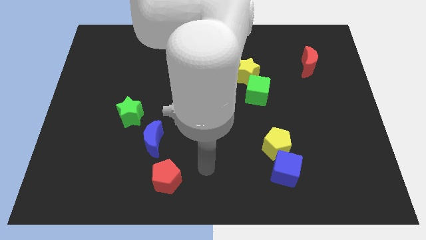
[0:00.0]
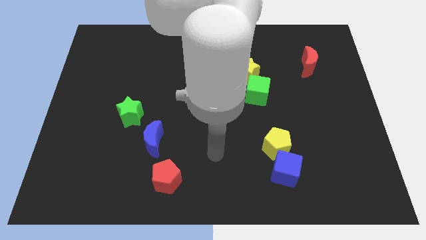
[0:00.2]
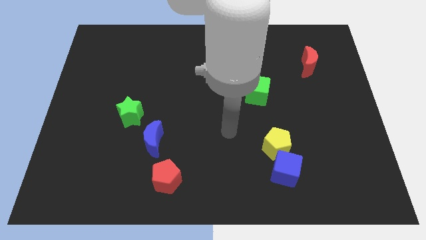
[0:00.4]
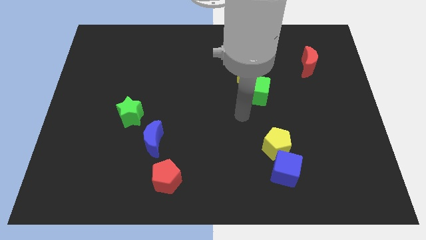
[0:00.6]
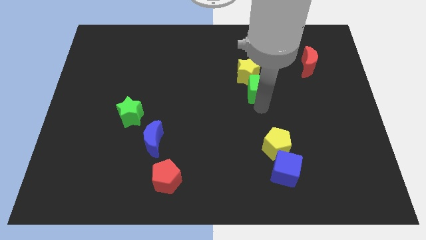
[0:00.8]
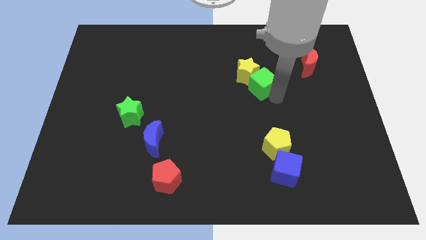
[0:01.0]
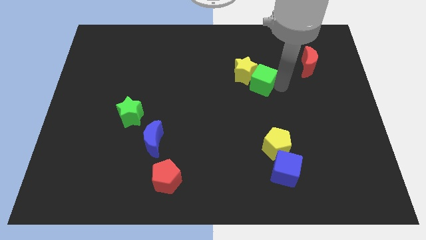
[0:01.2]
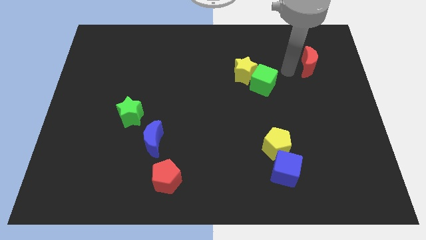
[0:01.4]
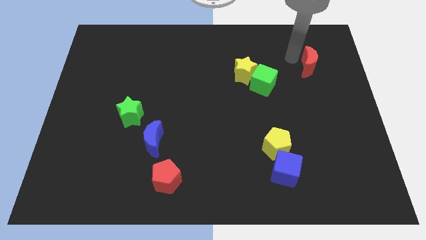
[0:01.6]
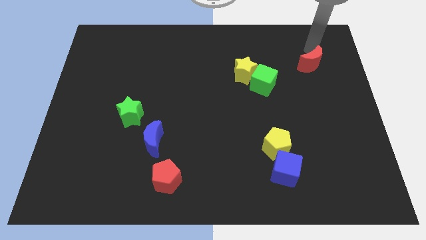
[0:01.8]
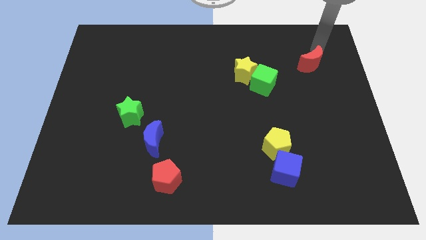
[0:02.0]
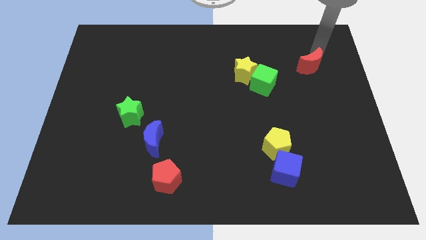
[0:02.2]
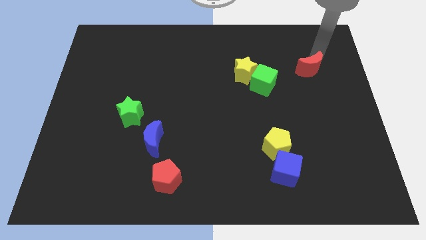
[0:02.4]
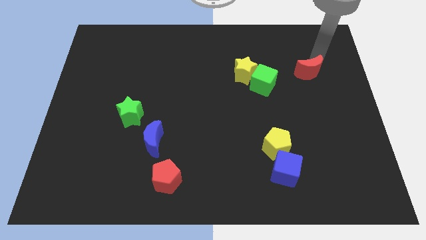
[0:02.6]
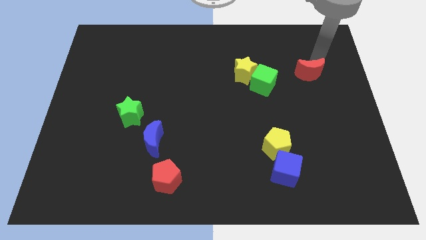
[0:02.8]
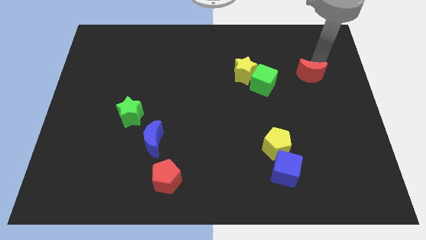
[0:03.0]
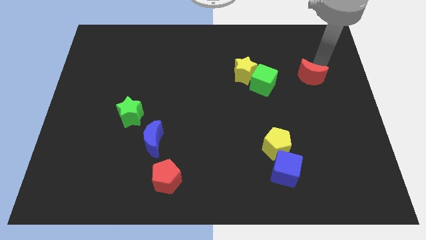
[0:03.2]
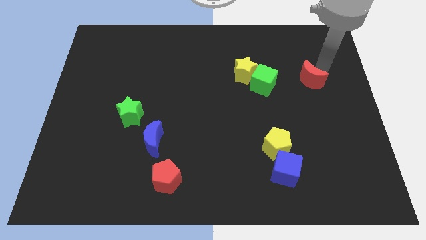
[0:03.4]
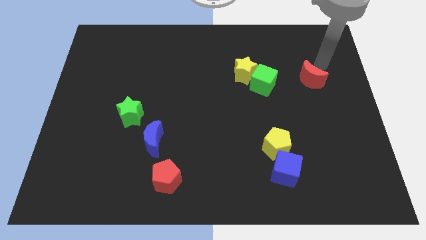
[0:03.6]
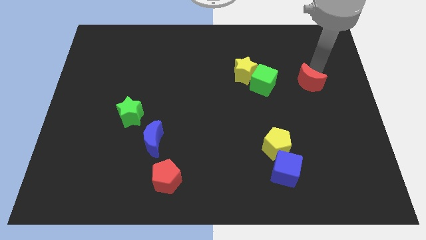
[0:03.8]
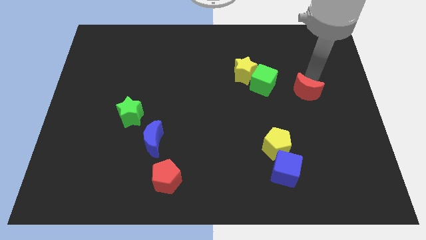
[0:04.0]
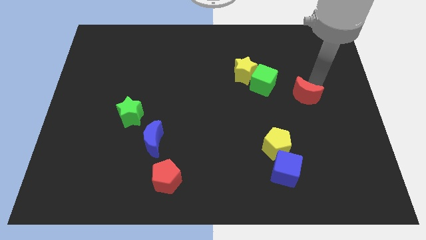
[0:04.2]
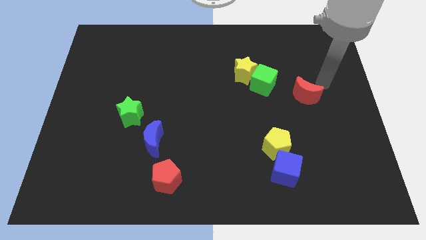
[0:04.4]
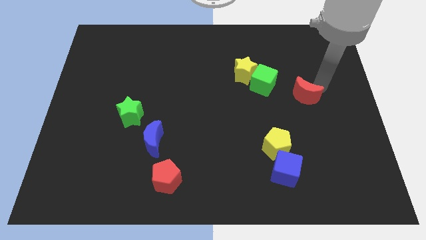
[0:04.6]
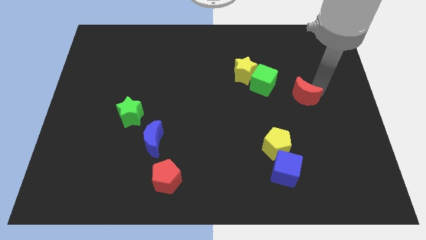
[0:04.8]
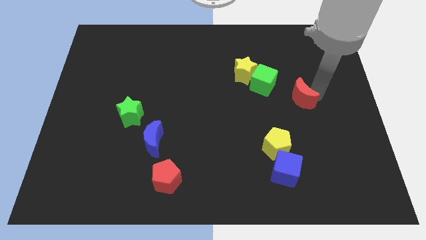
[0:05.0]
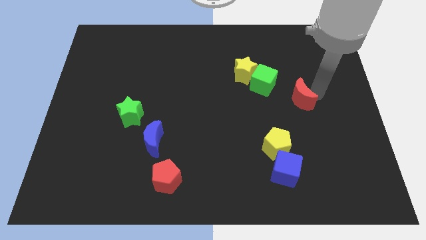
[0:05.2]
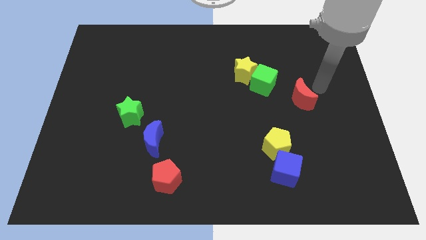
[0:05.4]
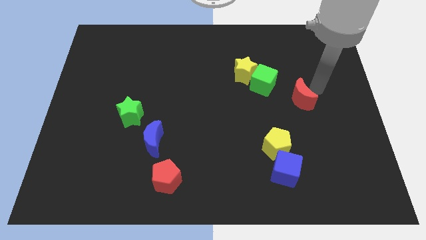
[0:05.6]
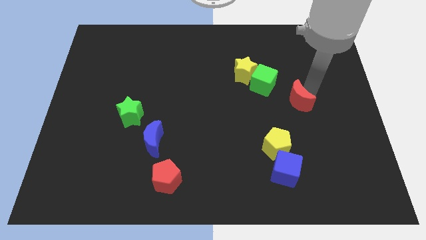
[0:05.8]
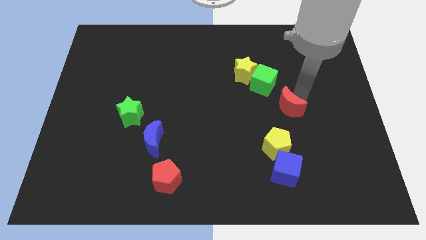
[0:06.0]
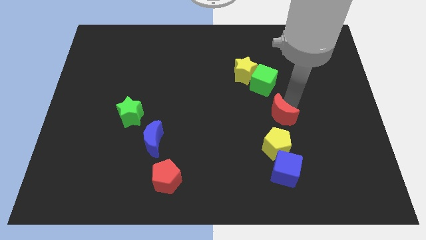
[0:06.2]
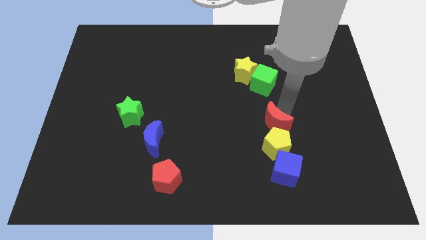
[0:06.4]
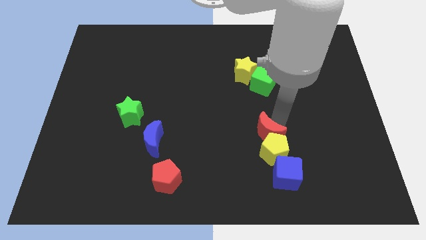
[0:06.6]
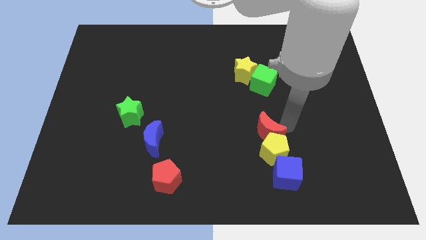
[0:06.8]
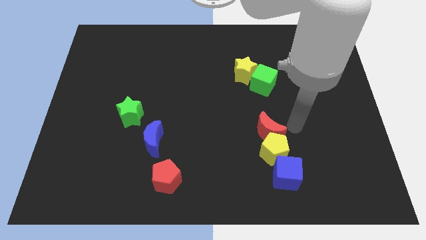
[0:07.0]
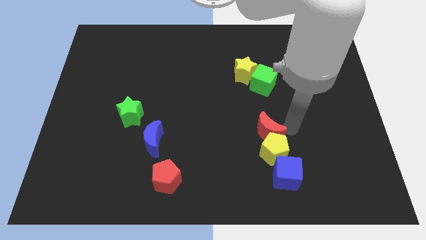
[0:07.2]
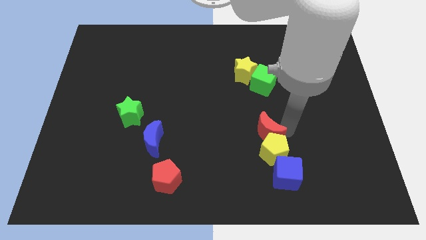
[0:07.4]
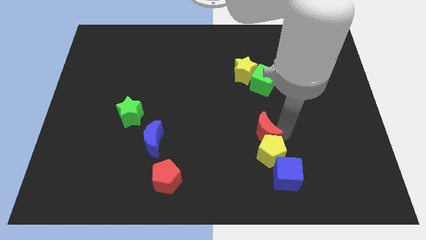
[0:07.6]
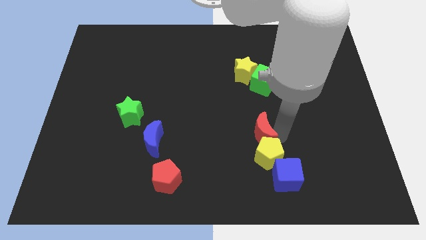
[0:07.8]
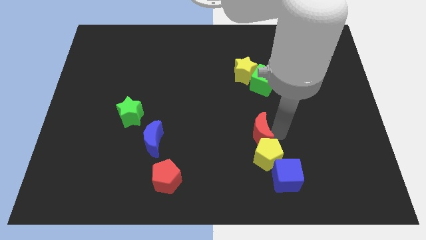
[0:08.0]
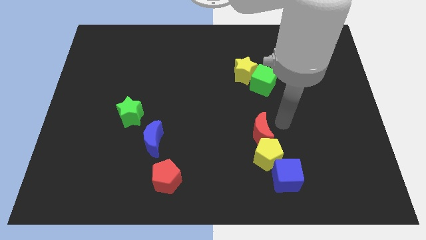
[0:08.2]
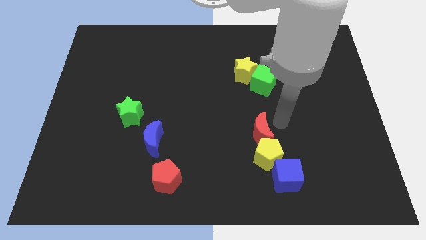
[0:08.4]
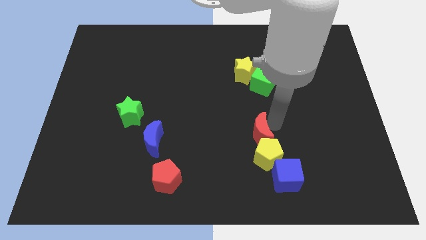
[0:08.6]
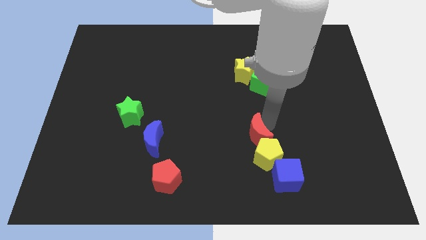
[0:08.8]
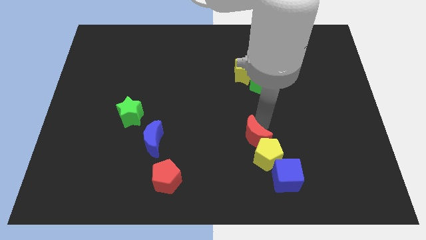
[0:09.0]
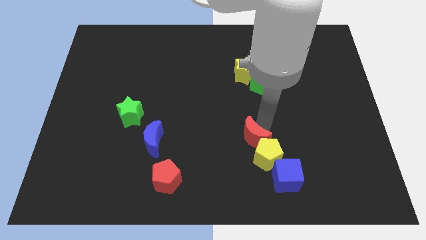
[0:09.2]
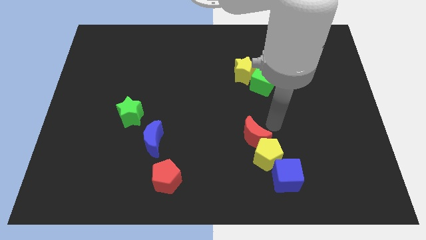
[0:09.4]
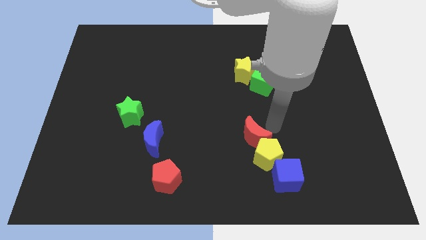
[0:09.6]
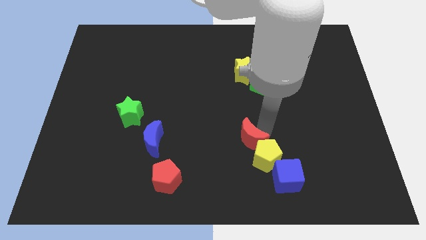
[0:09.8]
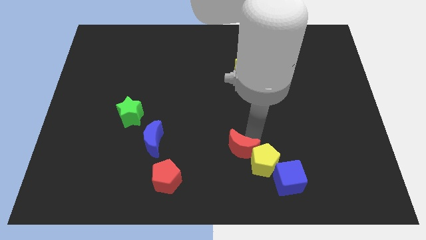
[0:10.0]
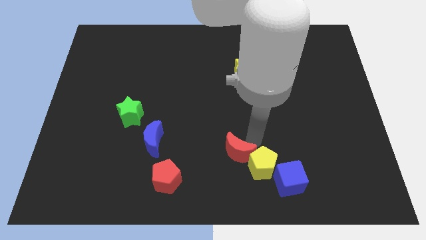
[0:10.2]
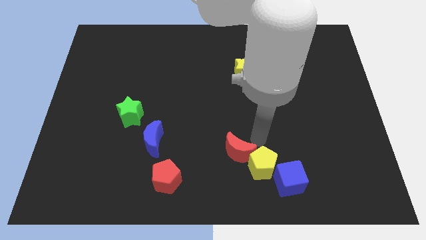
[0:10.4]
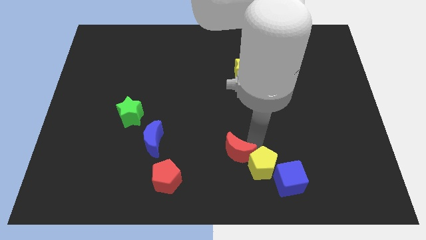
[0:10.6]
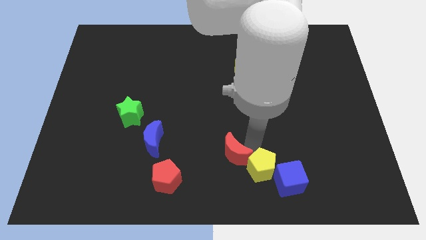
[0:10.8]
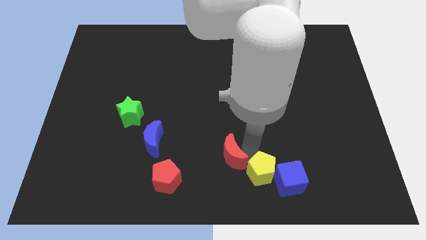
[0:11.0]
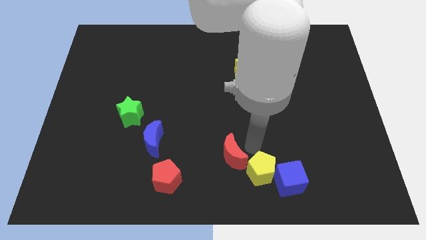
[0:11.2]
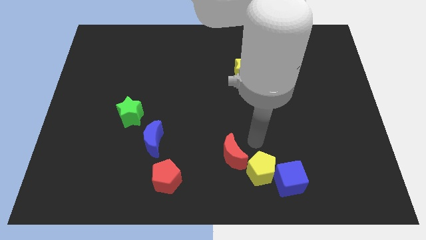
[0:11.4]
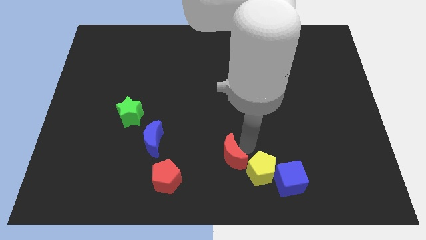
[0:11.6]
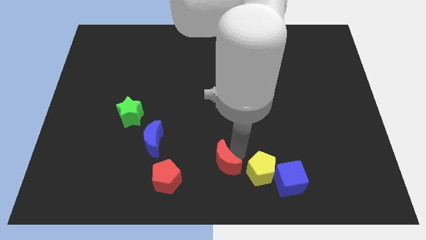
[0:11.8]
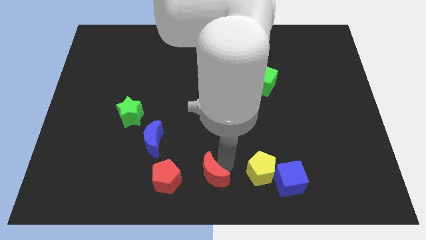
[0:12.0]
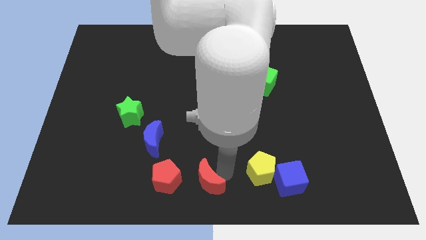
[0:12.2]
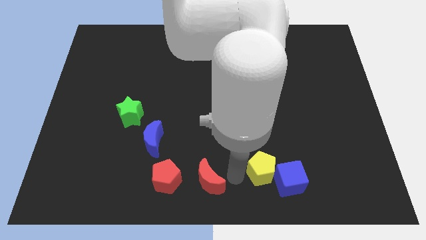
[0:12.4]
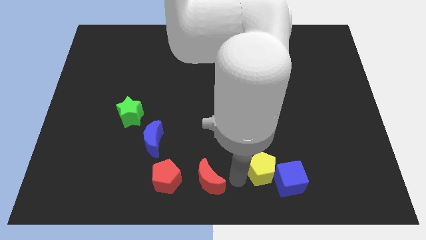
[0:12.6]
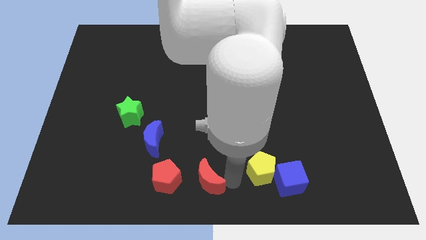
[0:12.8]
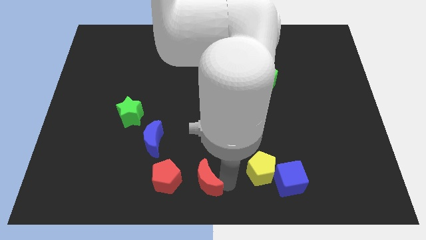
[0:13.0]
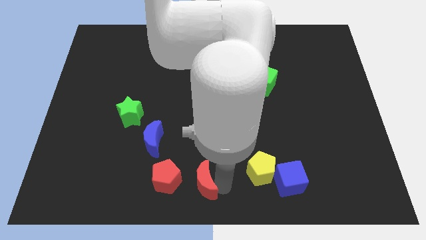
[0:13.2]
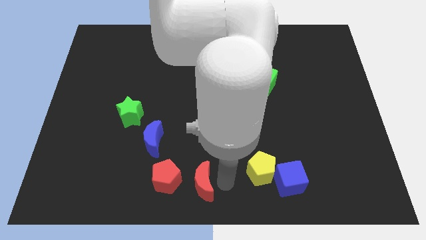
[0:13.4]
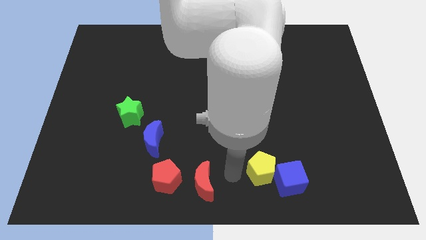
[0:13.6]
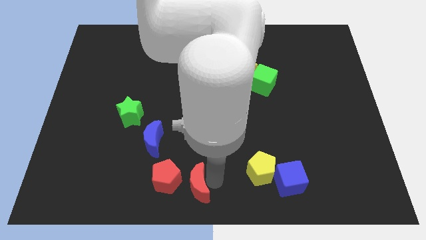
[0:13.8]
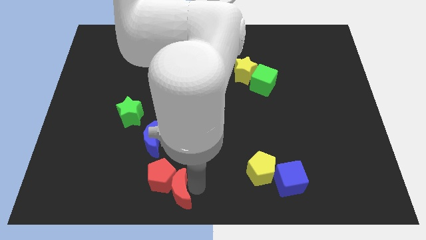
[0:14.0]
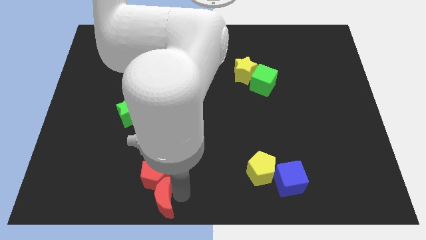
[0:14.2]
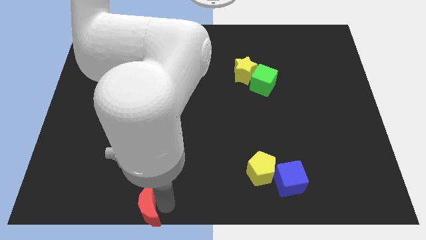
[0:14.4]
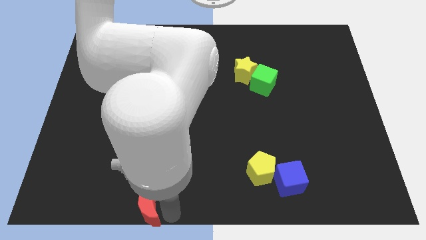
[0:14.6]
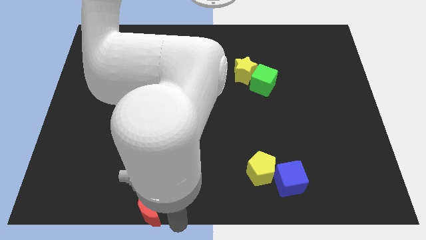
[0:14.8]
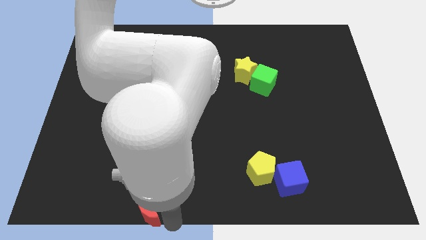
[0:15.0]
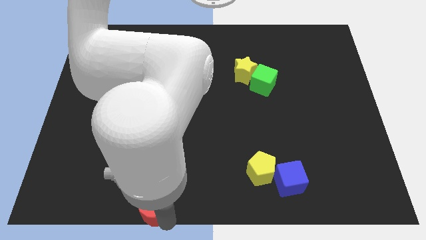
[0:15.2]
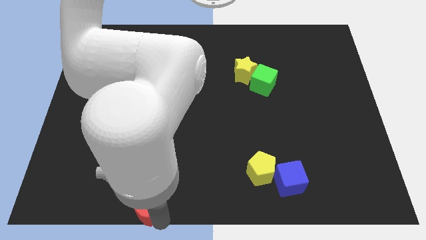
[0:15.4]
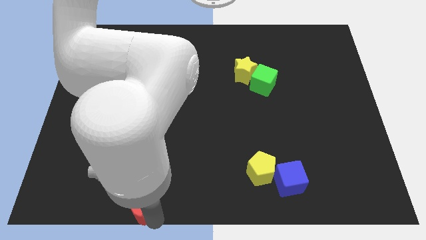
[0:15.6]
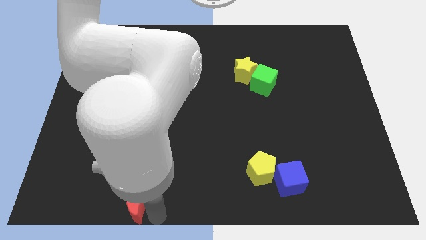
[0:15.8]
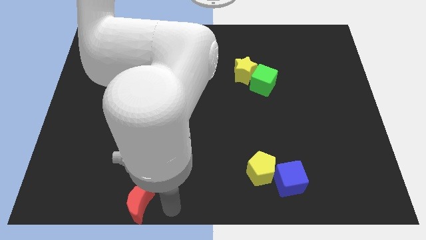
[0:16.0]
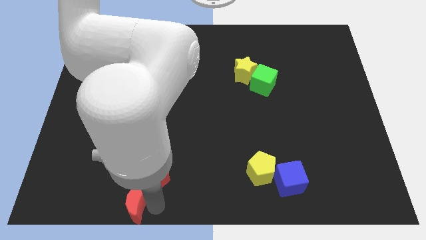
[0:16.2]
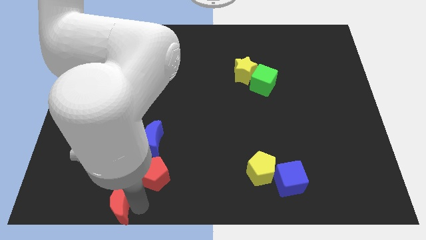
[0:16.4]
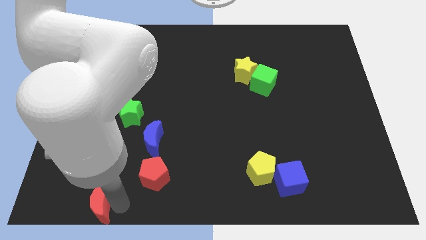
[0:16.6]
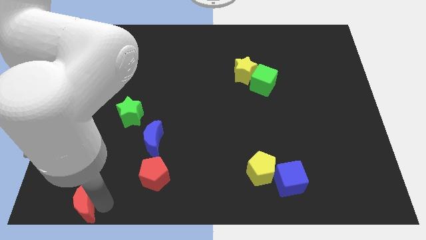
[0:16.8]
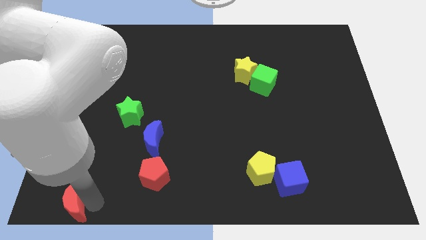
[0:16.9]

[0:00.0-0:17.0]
move the red moon to the lower left corner
